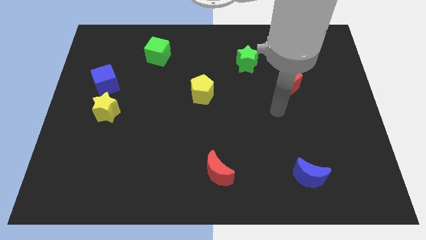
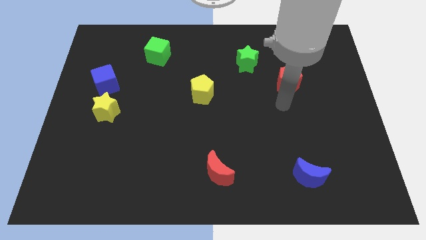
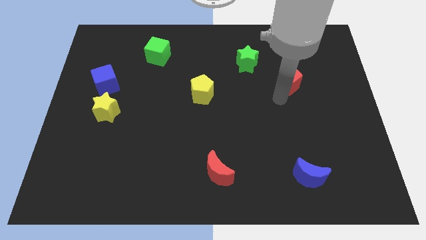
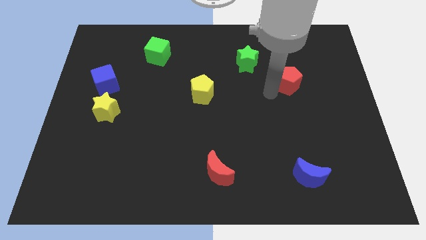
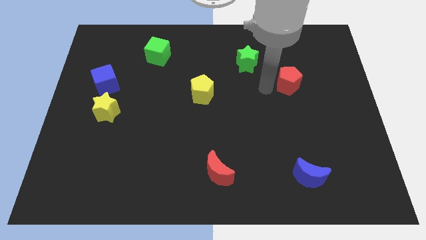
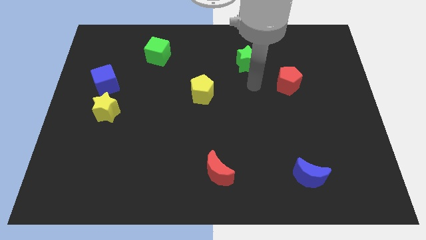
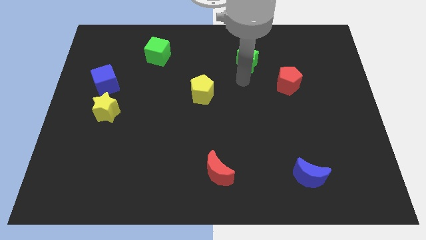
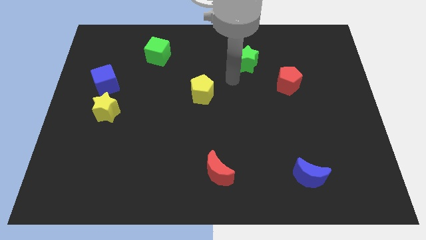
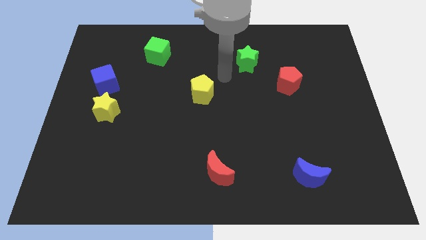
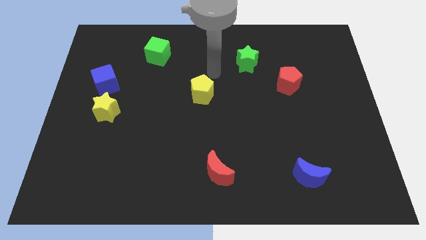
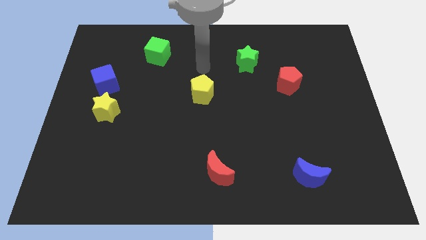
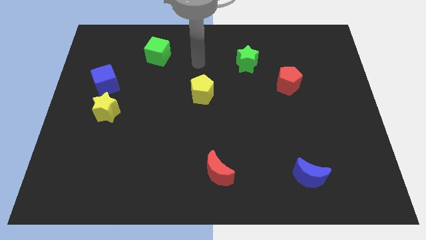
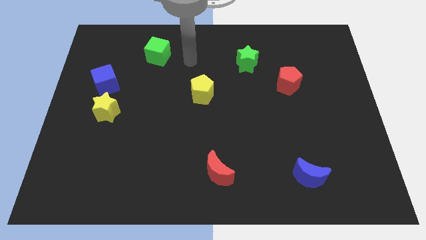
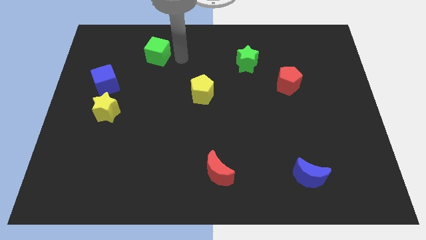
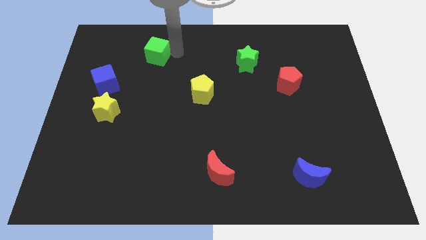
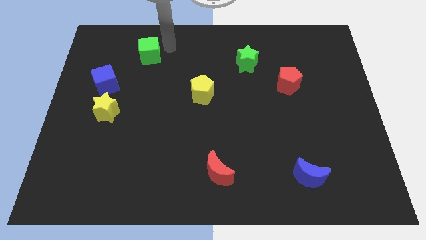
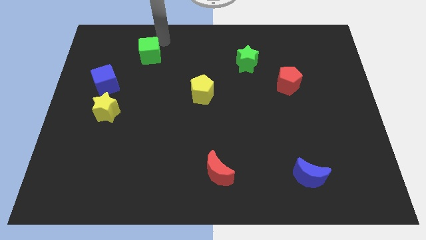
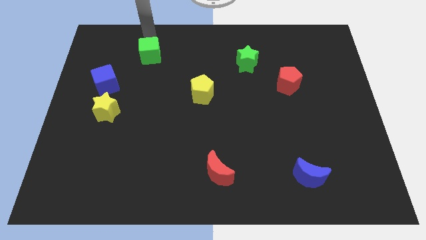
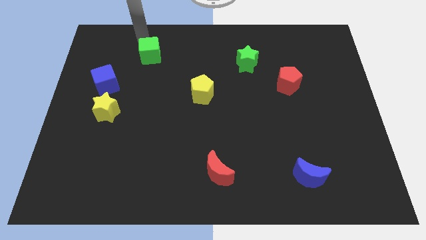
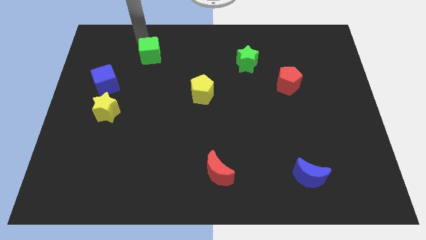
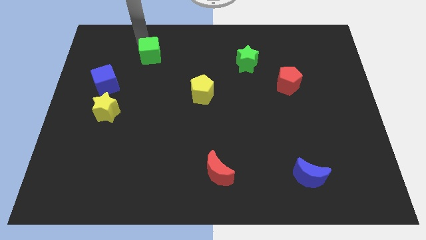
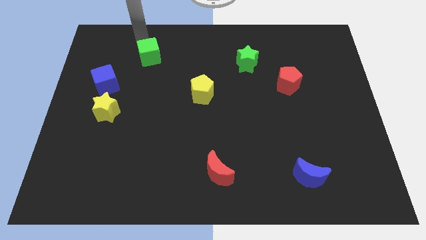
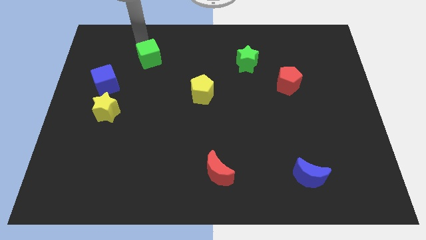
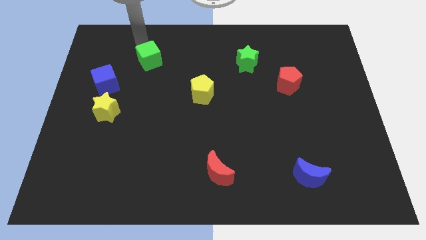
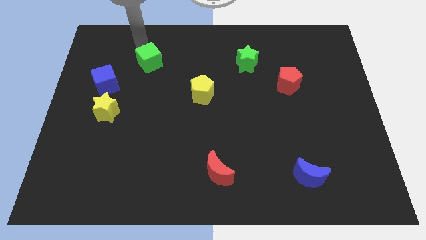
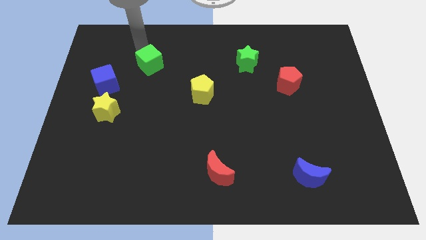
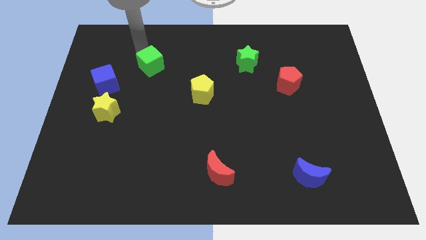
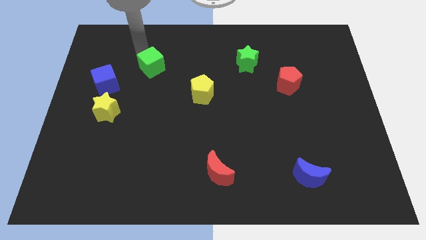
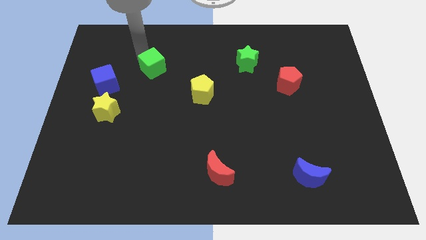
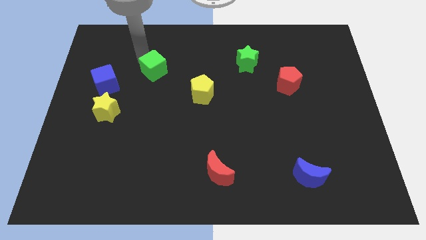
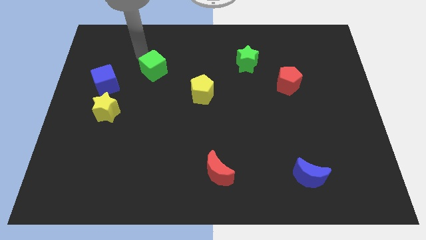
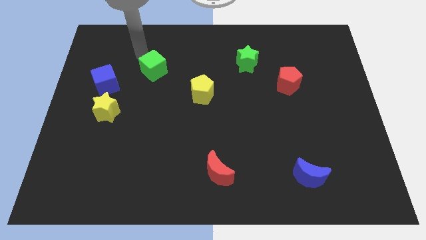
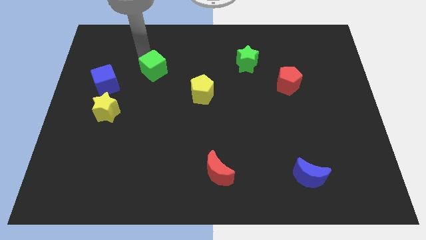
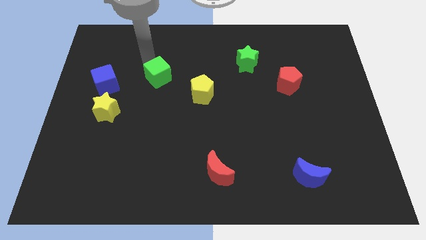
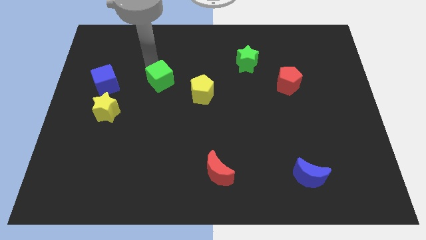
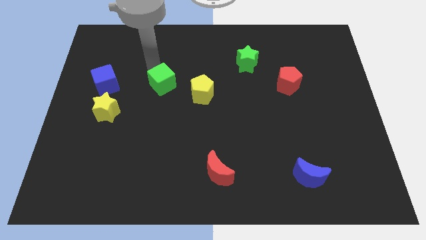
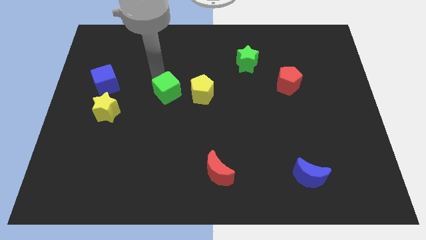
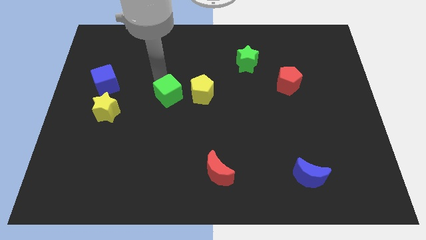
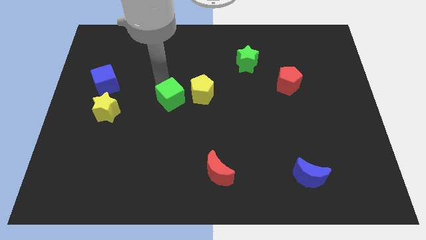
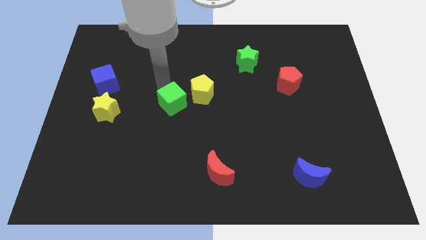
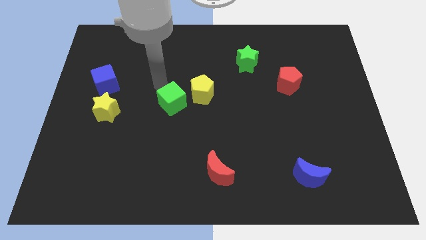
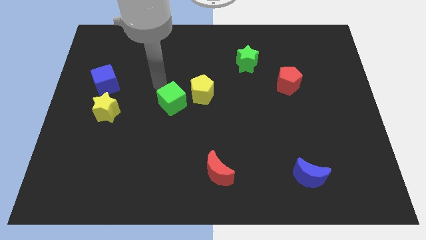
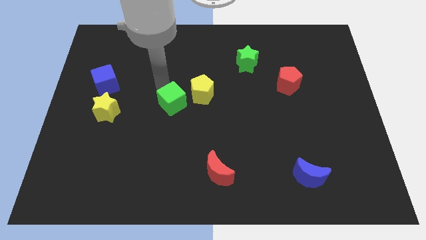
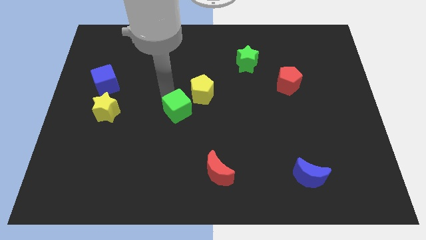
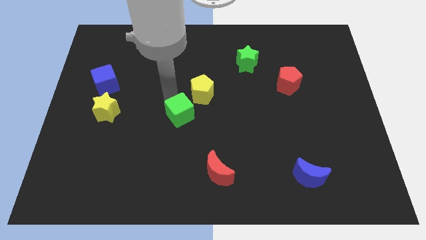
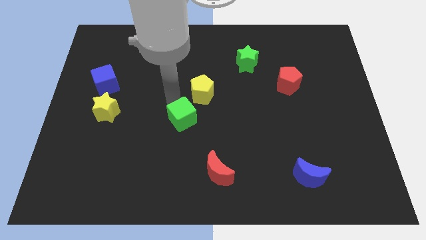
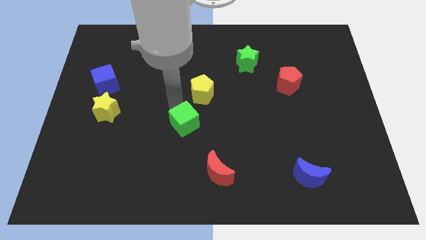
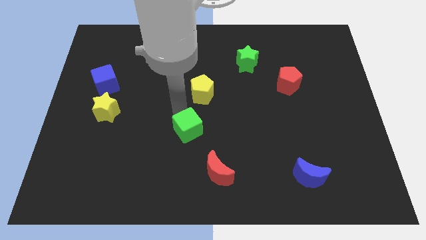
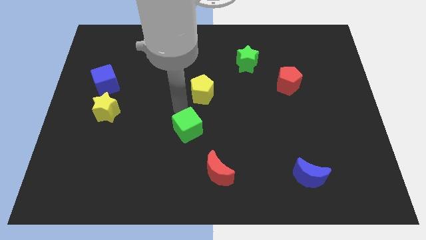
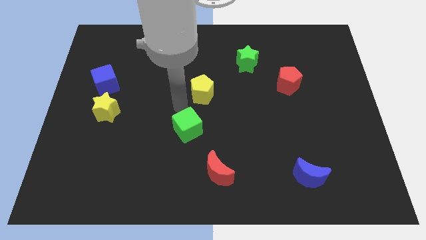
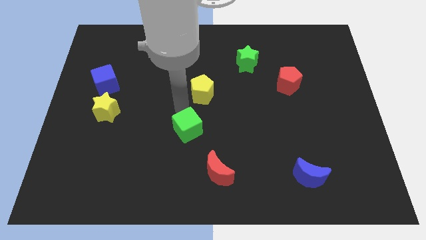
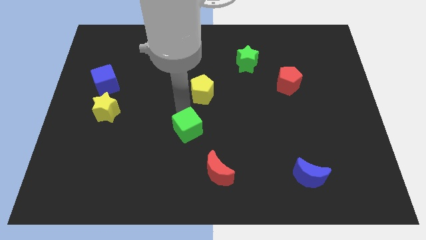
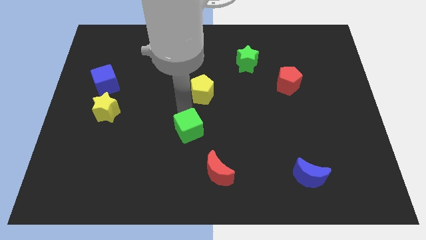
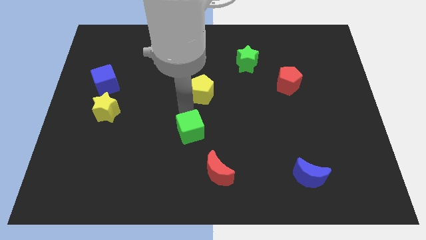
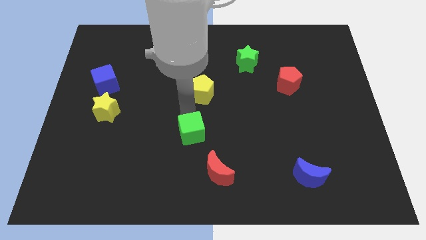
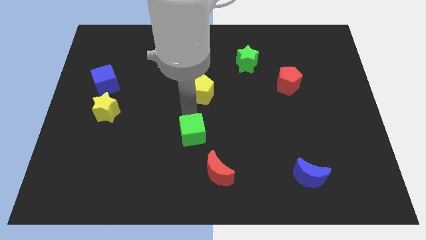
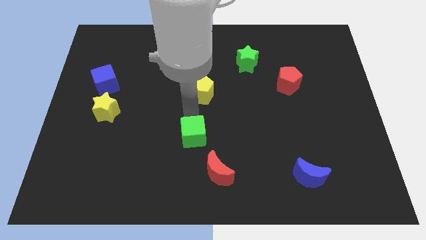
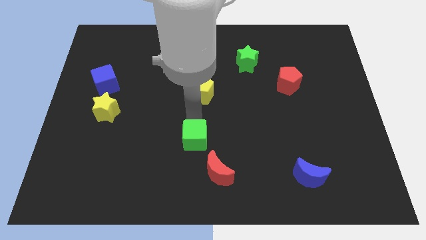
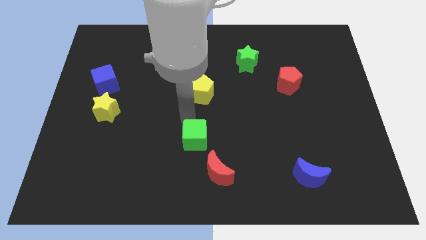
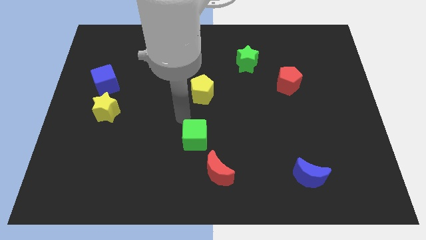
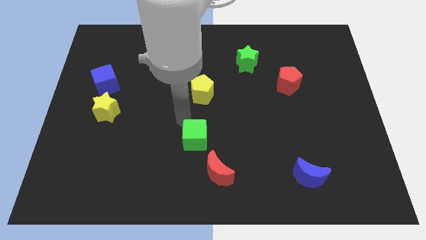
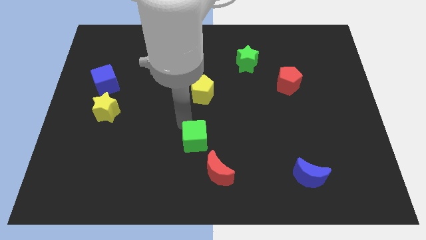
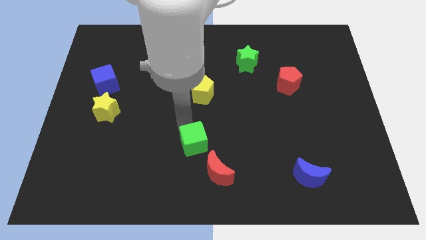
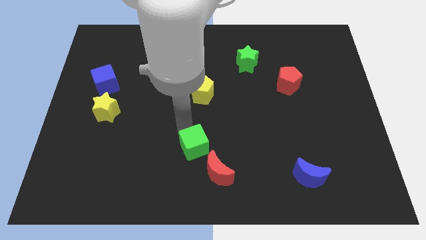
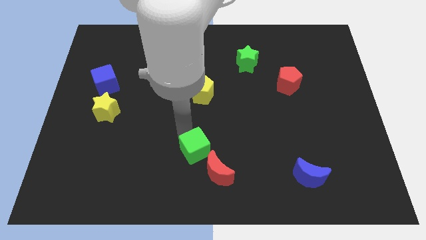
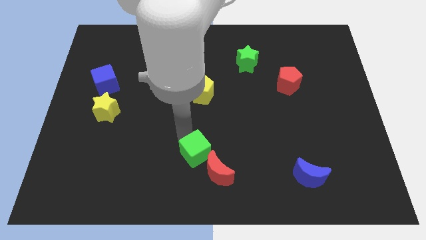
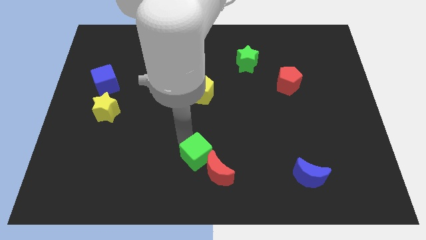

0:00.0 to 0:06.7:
move the green cube to the red moon
